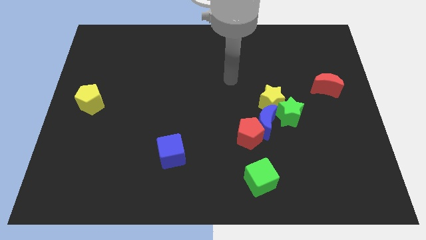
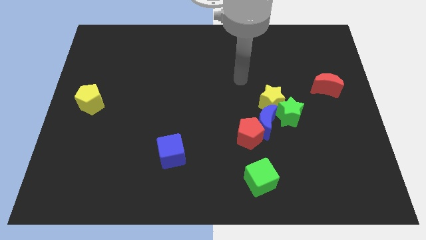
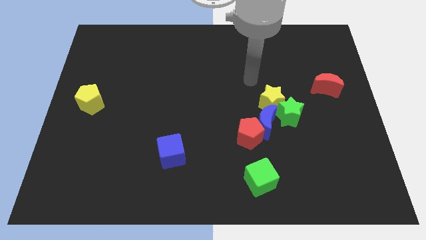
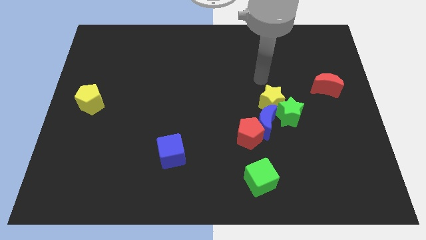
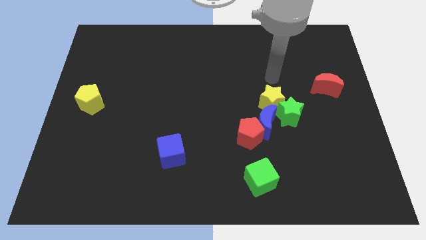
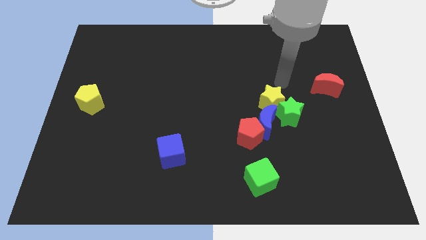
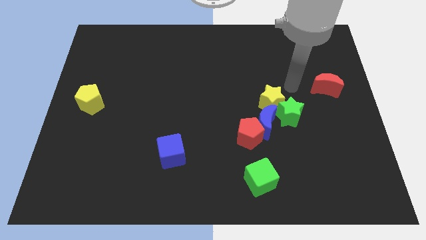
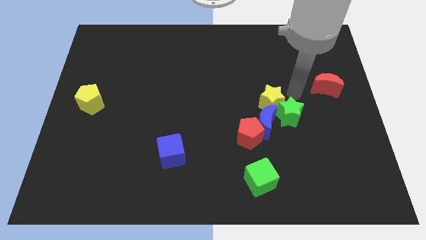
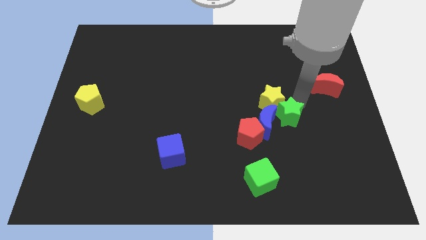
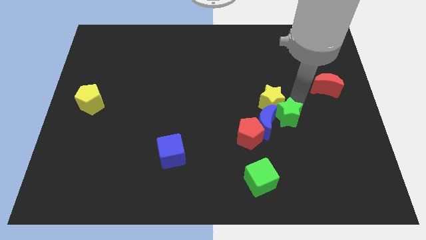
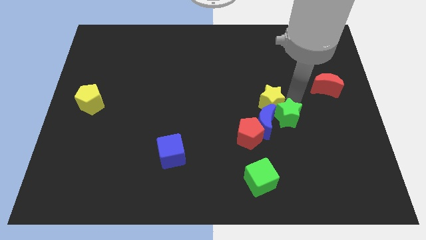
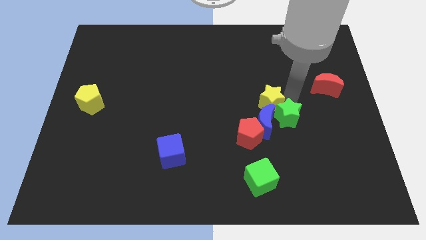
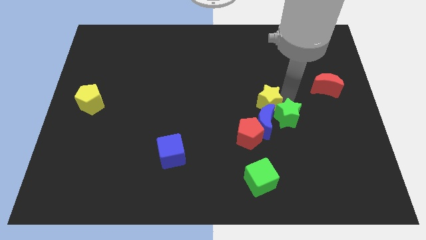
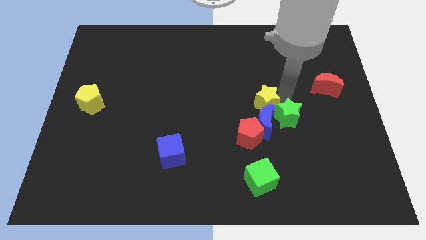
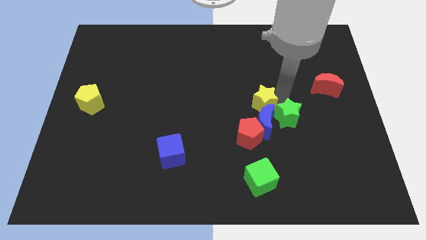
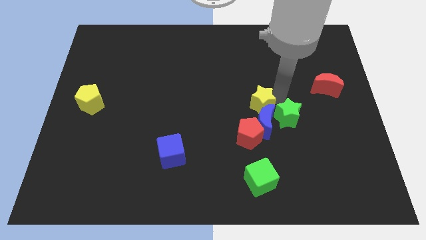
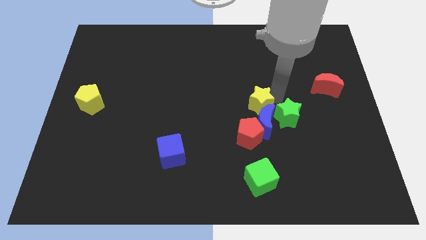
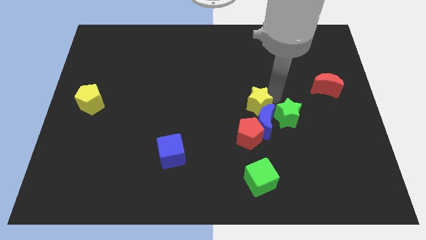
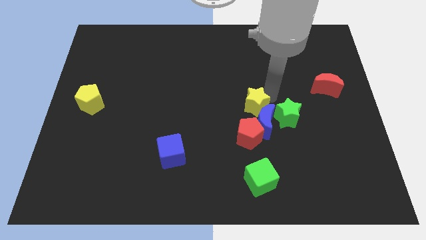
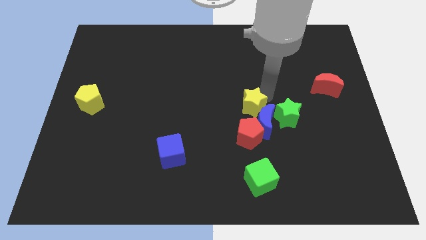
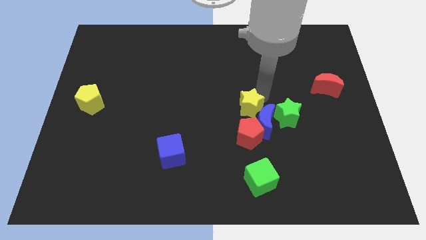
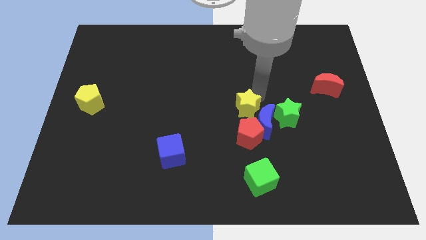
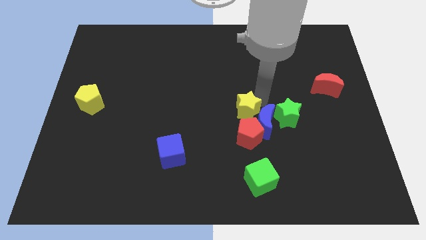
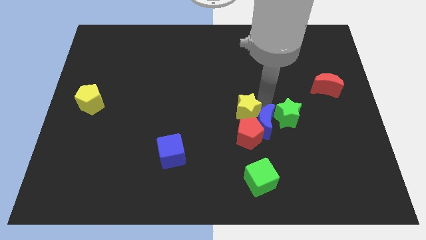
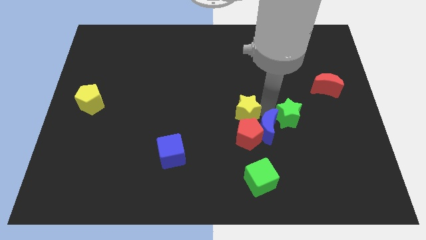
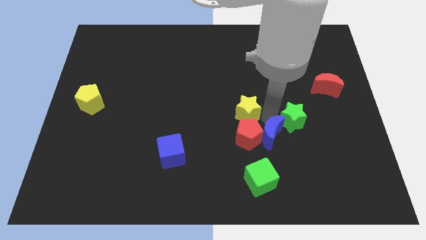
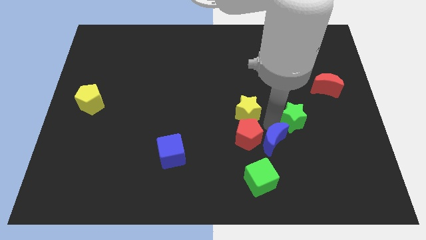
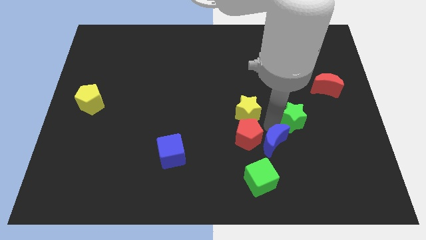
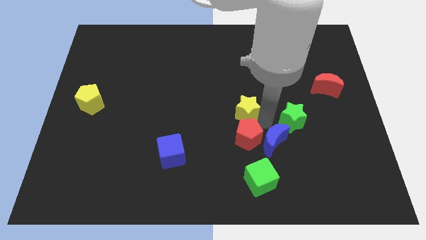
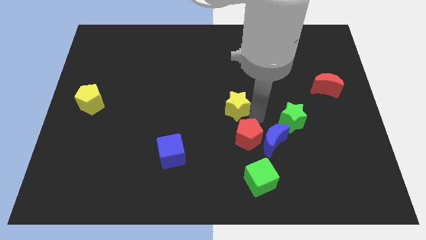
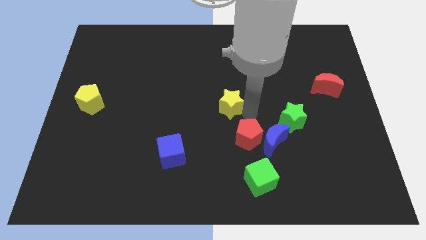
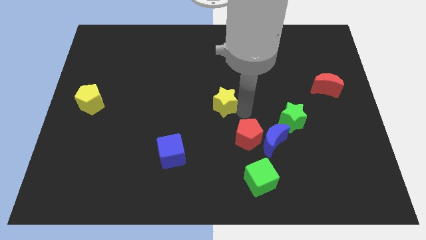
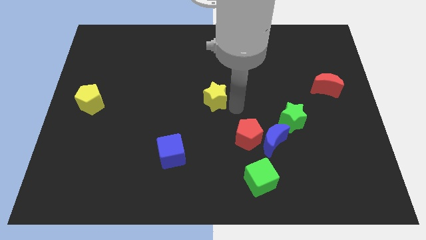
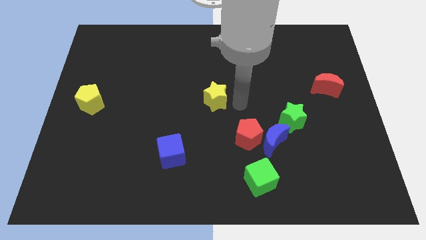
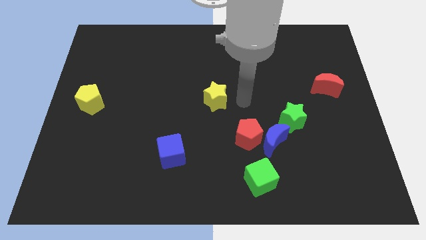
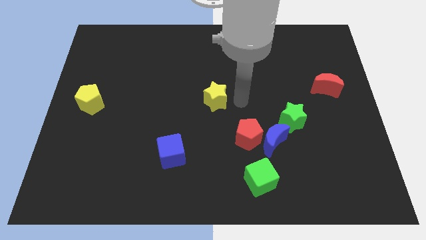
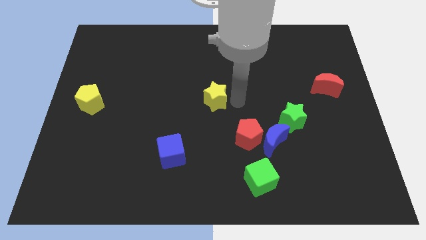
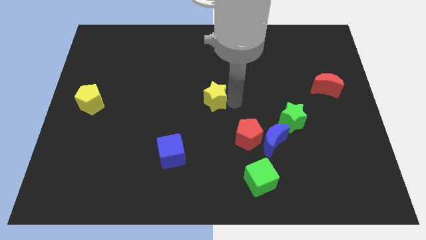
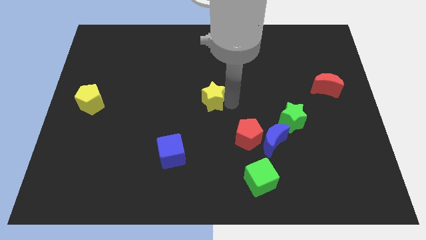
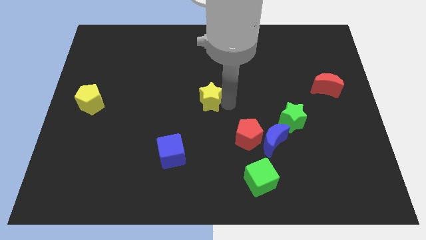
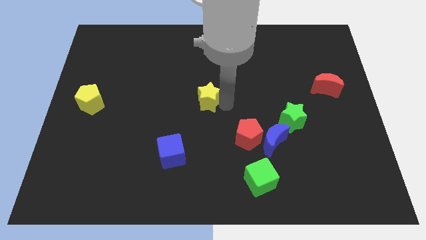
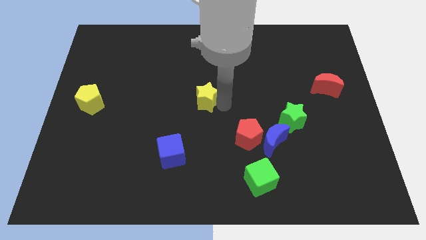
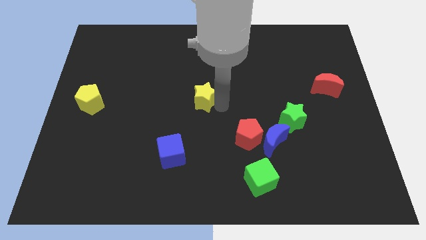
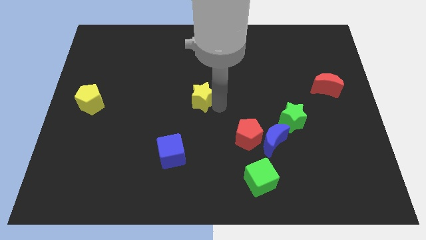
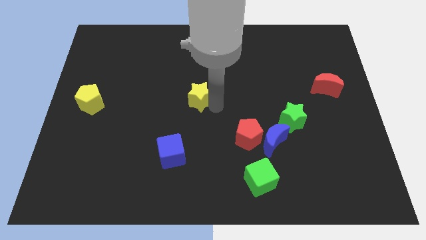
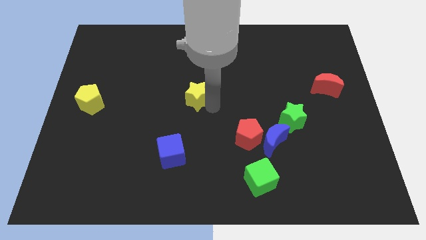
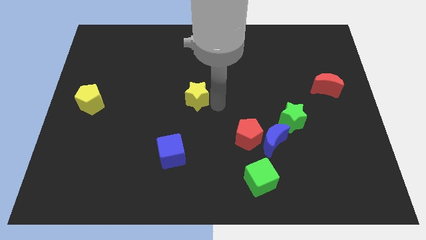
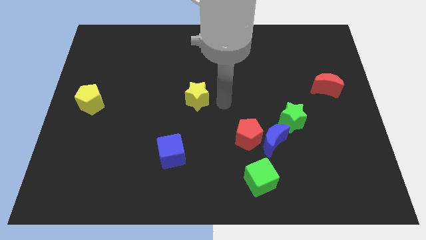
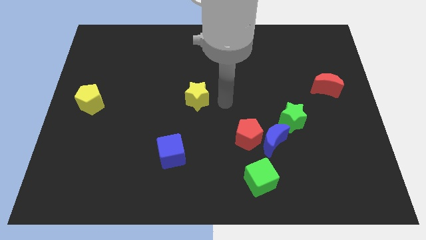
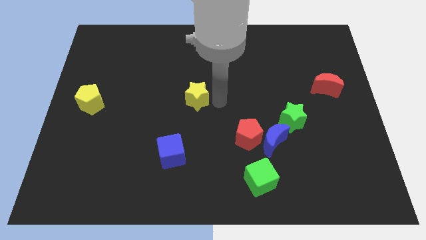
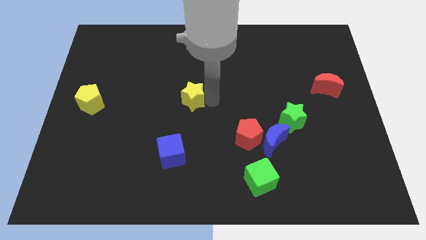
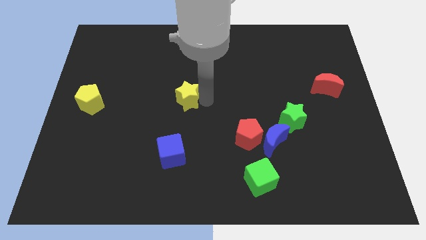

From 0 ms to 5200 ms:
slide the yellow star left

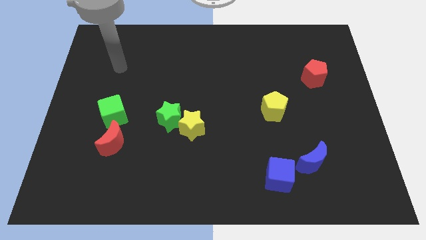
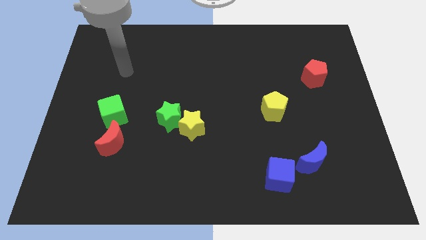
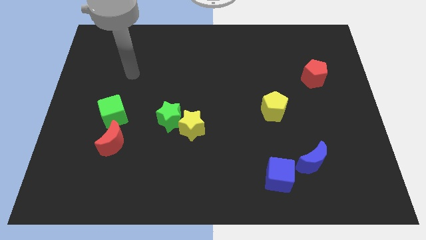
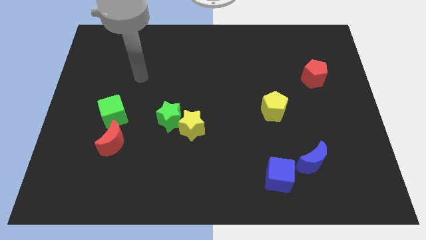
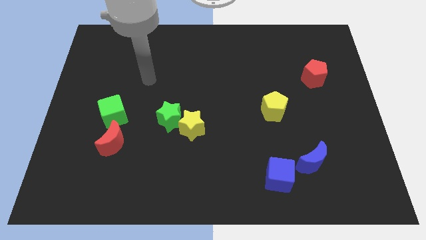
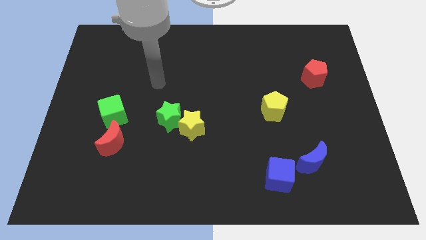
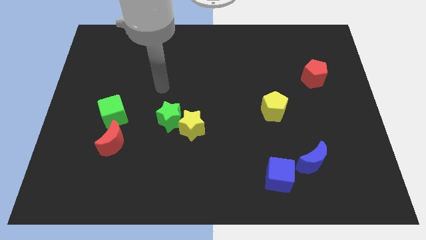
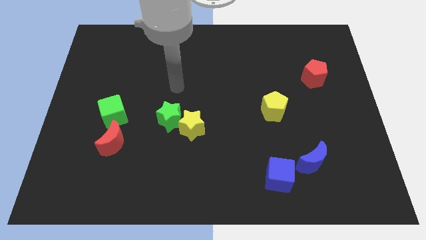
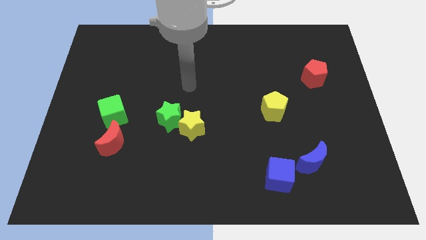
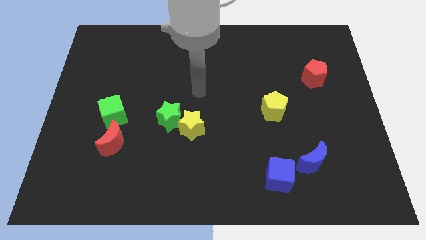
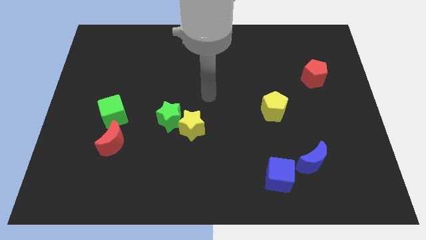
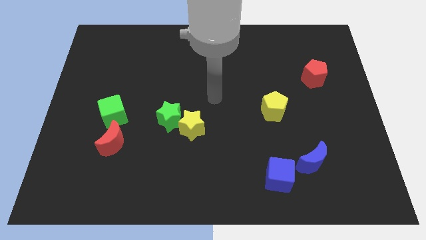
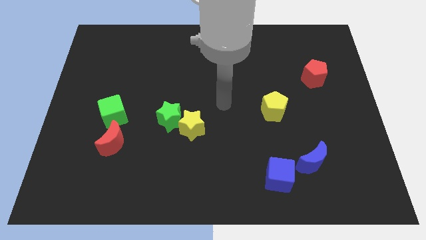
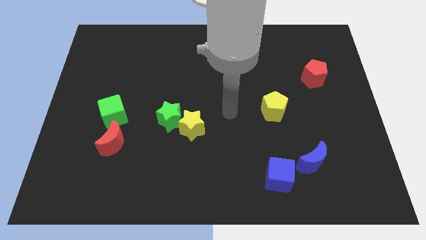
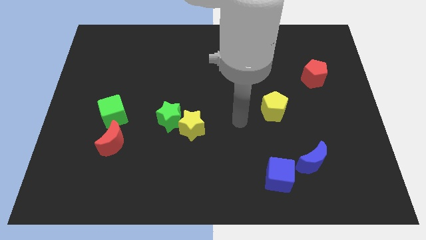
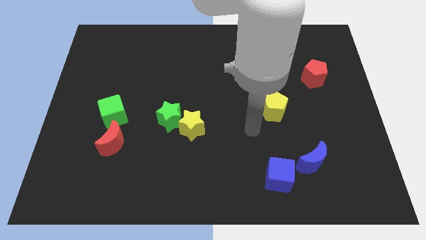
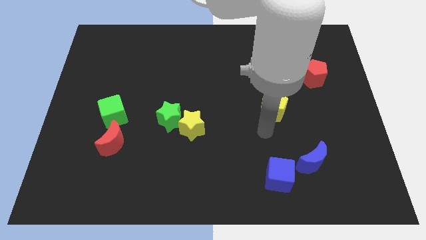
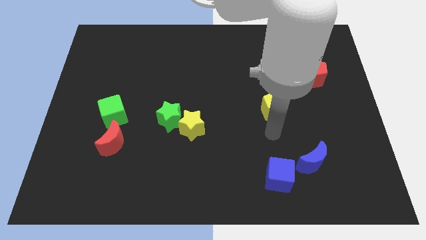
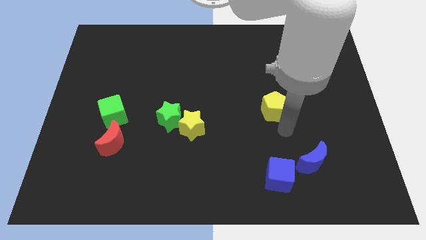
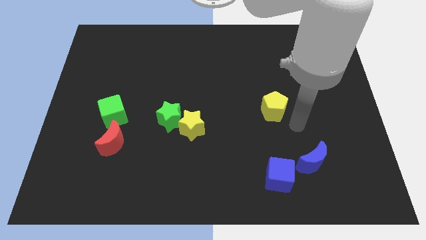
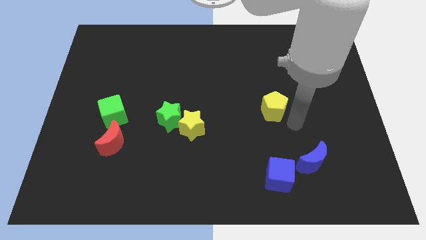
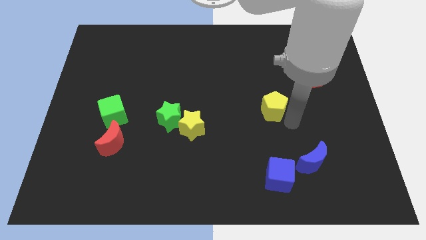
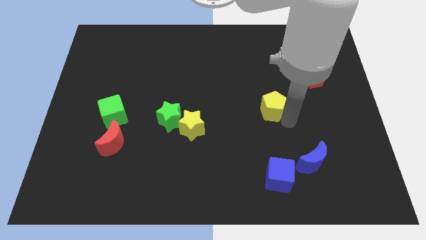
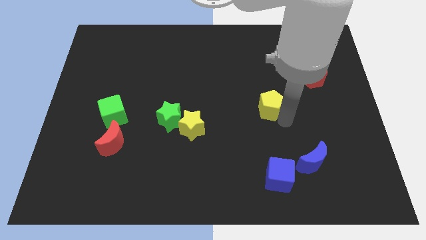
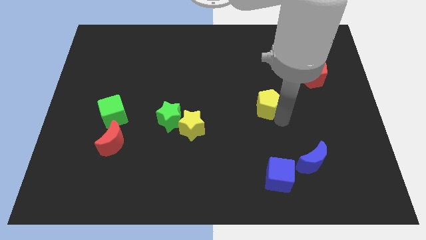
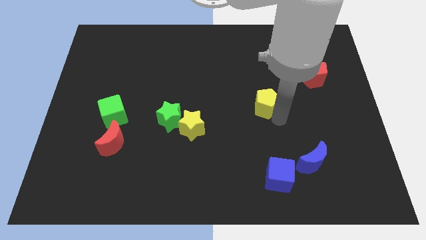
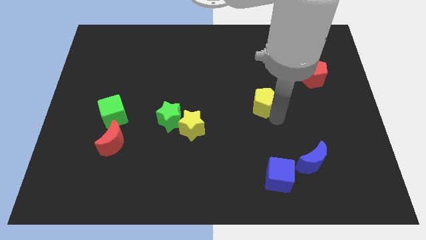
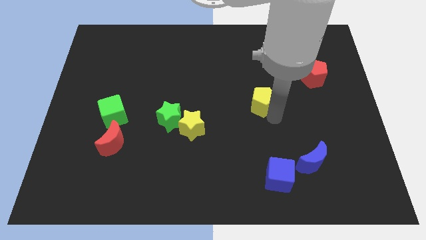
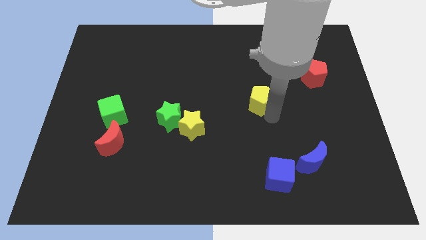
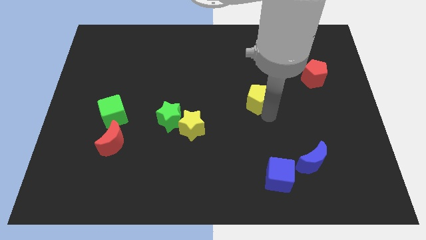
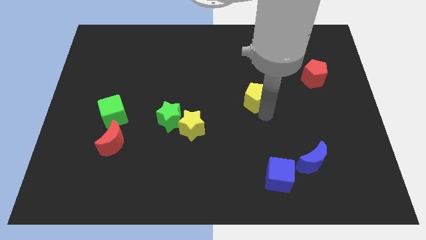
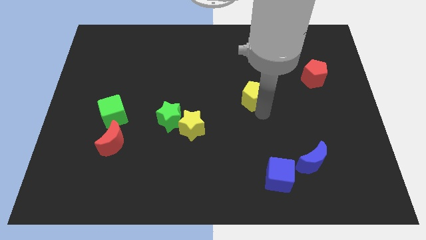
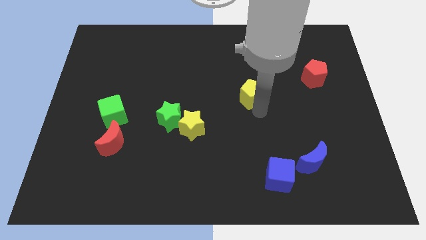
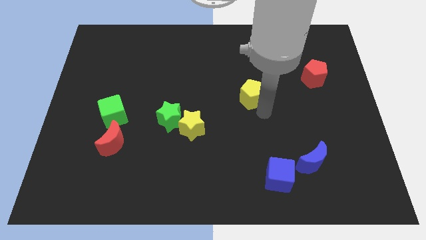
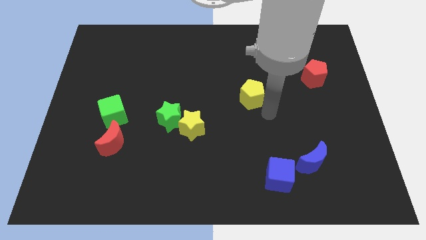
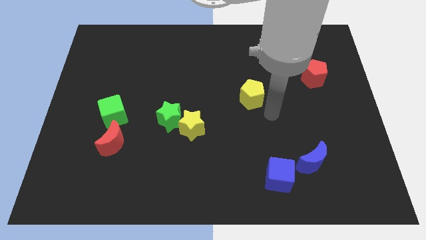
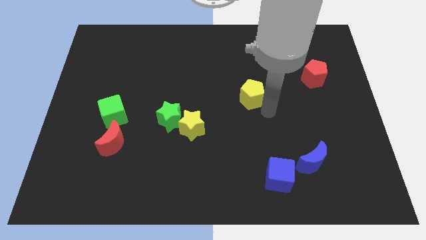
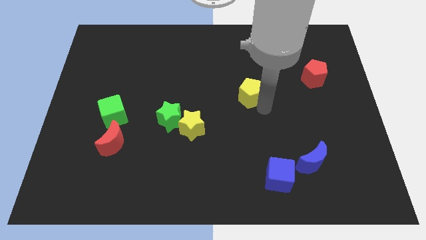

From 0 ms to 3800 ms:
slide the yellow pentagon a bit upwards and then to the left
